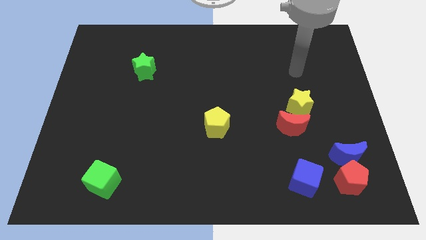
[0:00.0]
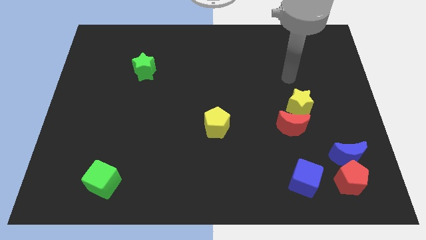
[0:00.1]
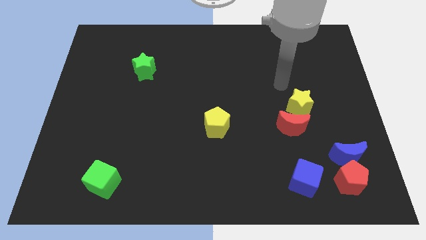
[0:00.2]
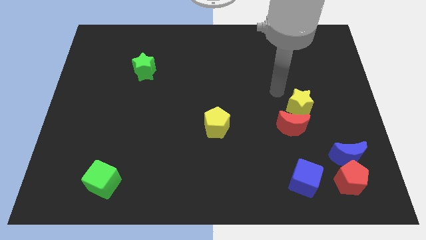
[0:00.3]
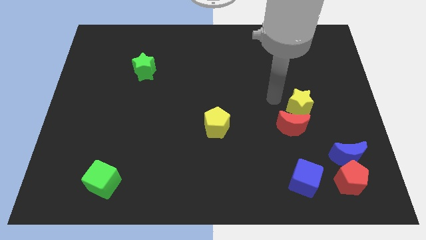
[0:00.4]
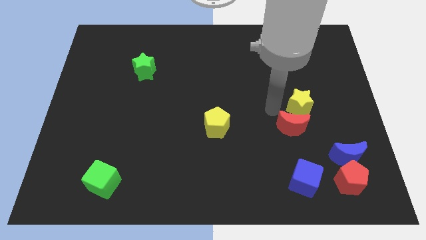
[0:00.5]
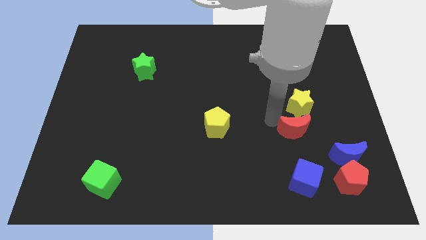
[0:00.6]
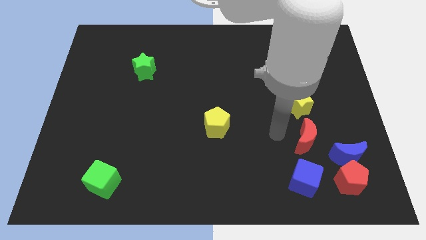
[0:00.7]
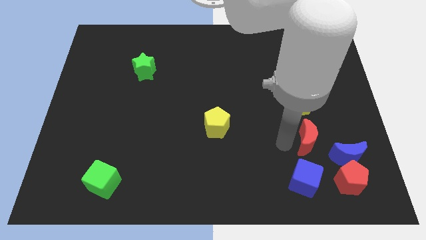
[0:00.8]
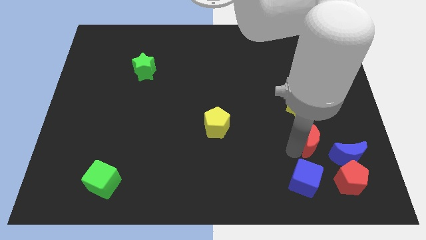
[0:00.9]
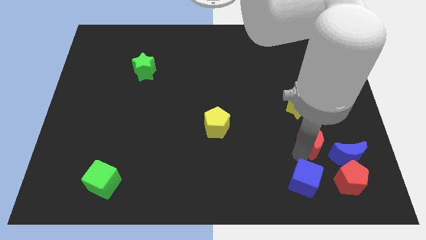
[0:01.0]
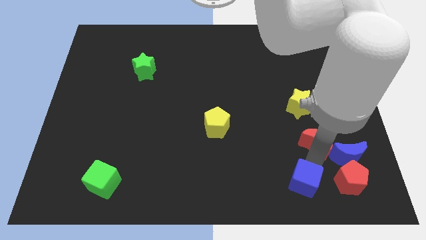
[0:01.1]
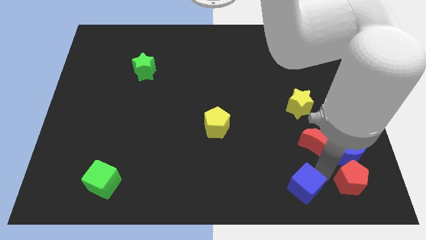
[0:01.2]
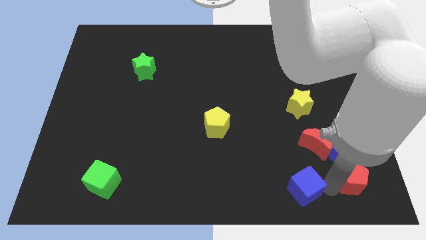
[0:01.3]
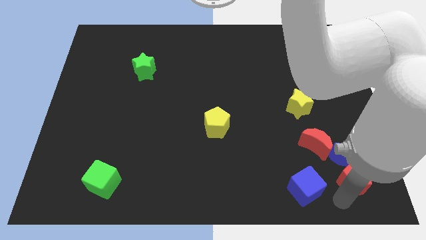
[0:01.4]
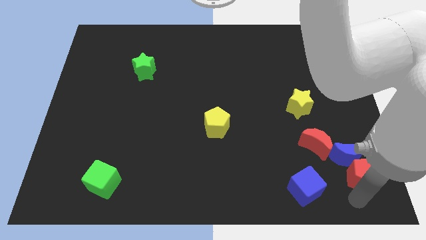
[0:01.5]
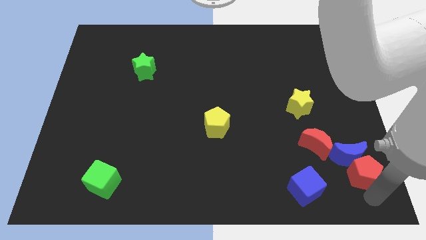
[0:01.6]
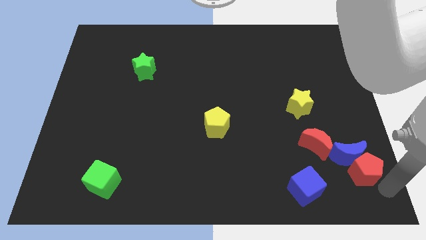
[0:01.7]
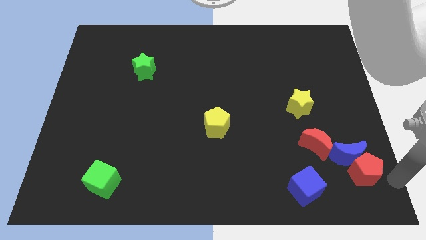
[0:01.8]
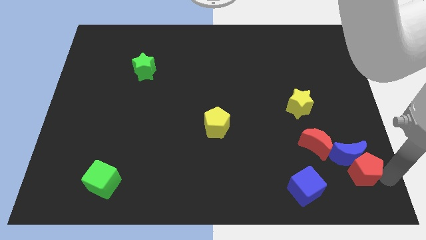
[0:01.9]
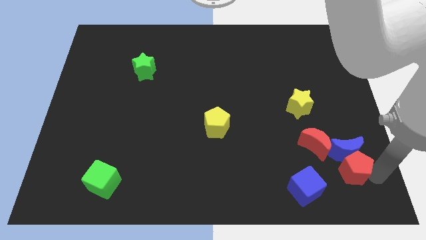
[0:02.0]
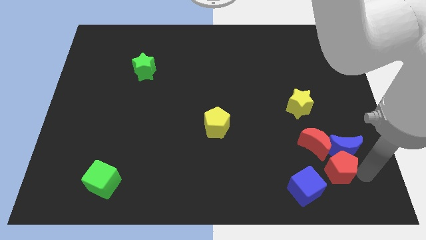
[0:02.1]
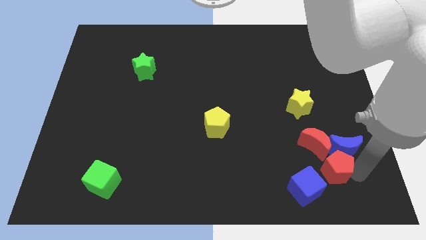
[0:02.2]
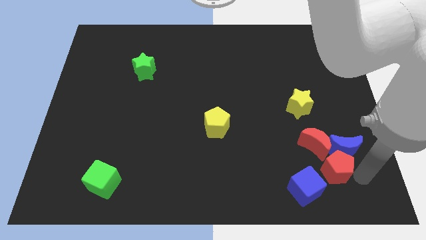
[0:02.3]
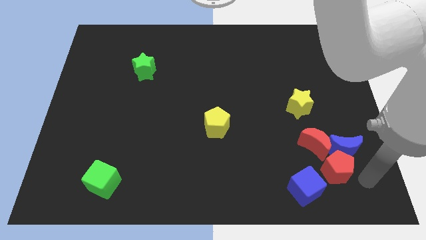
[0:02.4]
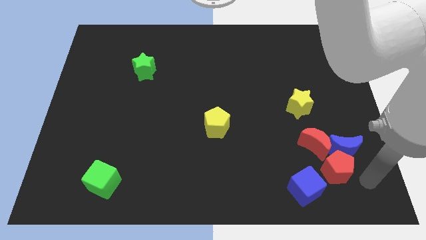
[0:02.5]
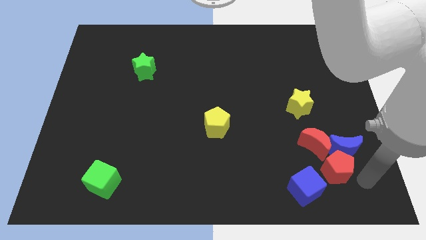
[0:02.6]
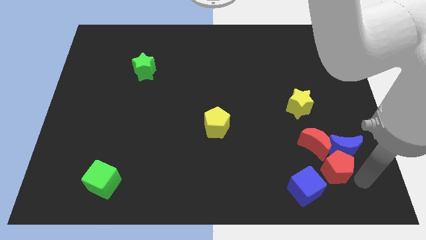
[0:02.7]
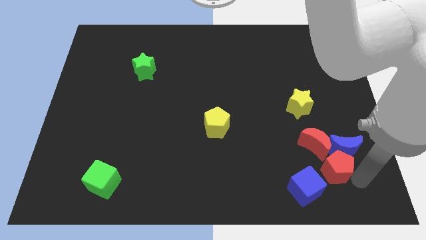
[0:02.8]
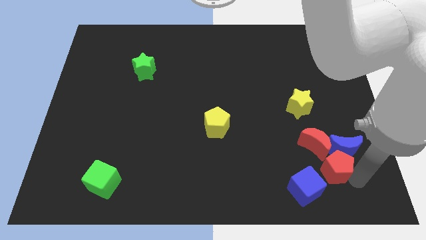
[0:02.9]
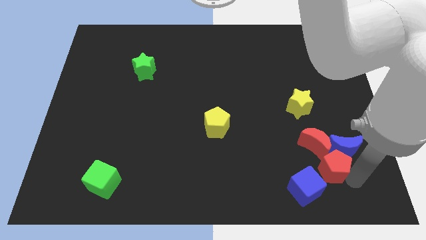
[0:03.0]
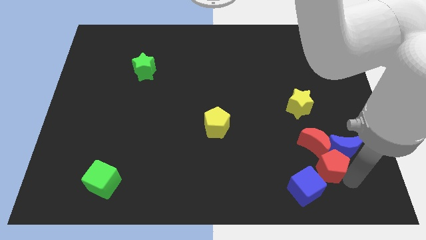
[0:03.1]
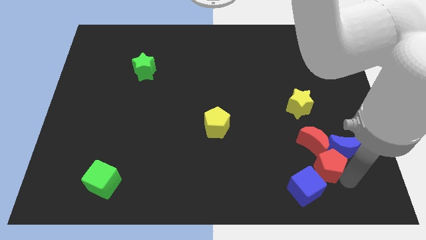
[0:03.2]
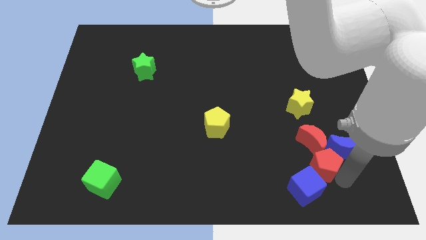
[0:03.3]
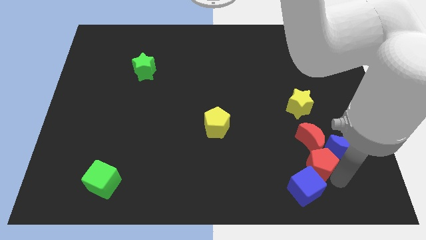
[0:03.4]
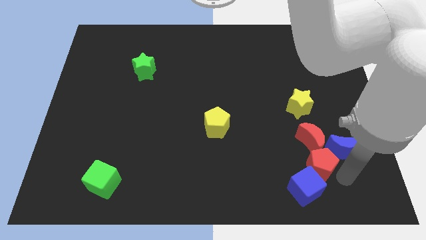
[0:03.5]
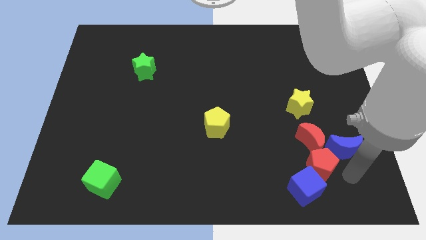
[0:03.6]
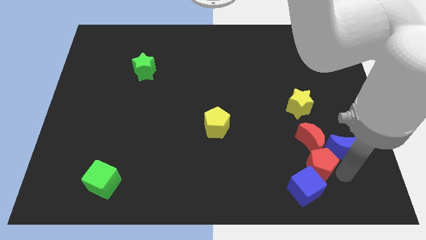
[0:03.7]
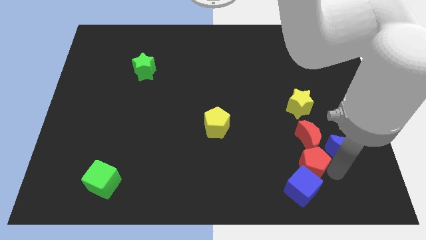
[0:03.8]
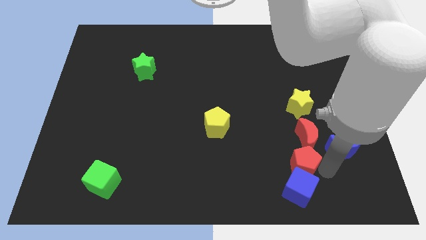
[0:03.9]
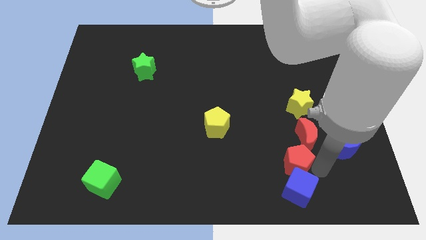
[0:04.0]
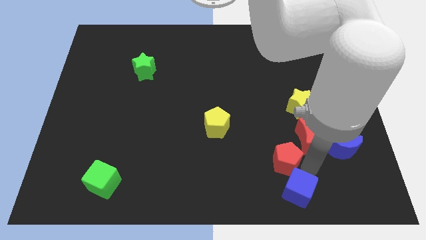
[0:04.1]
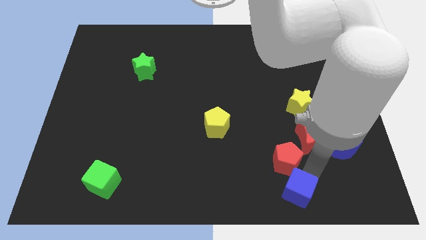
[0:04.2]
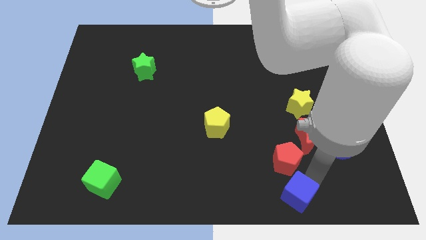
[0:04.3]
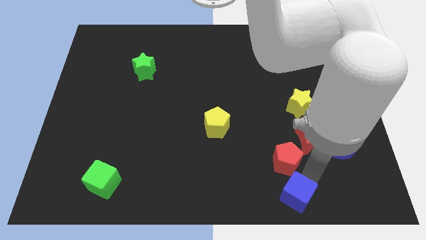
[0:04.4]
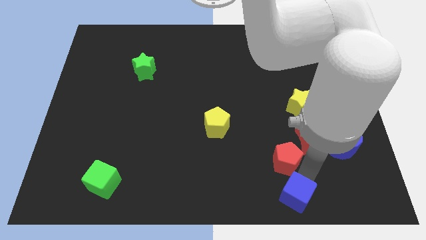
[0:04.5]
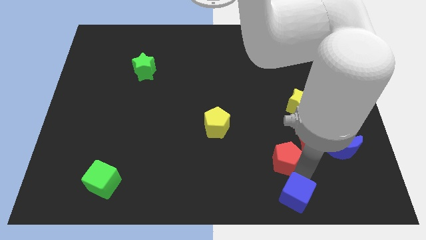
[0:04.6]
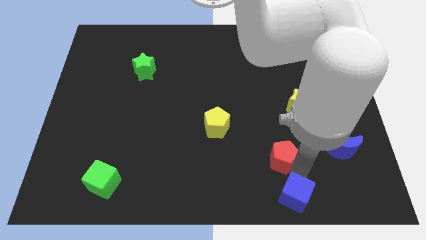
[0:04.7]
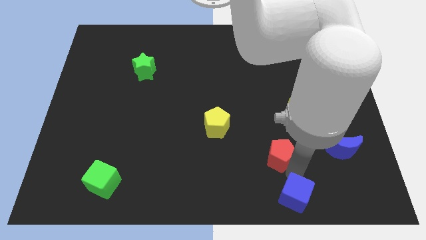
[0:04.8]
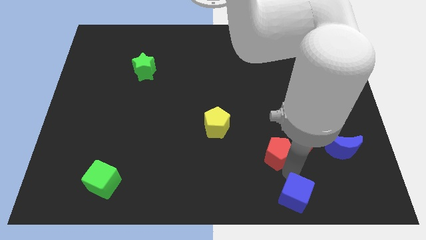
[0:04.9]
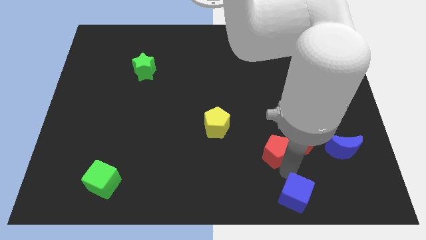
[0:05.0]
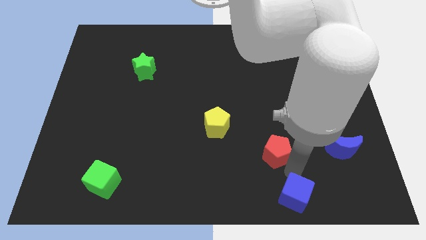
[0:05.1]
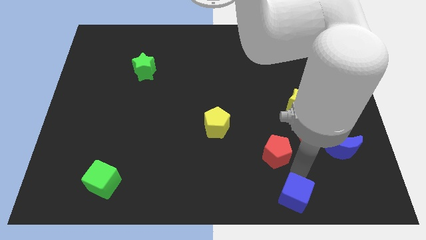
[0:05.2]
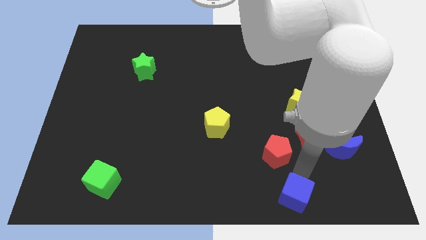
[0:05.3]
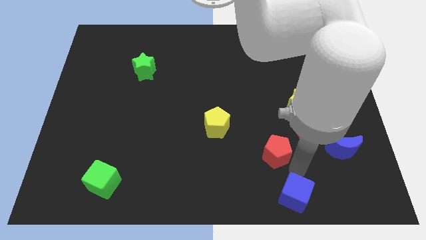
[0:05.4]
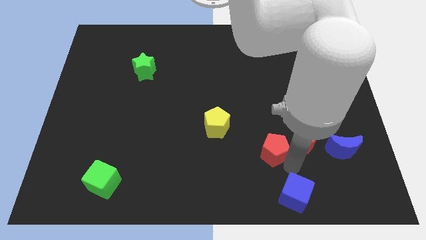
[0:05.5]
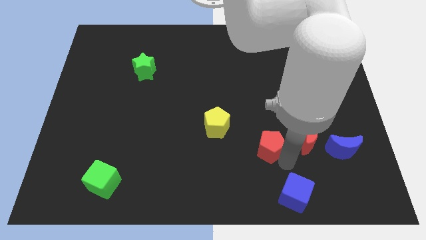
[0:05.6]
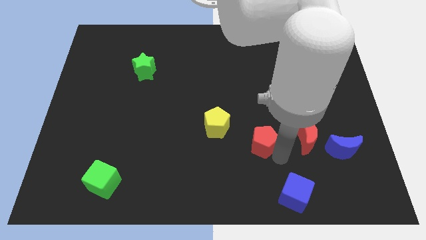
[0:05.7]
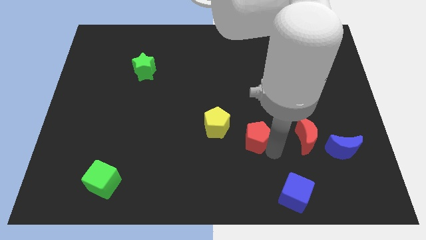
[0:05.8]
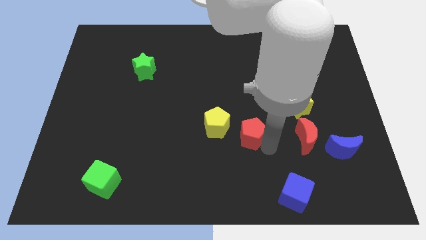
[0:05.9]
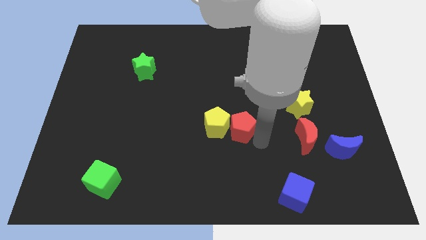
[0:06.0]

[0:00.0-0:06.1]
slide the red pentagon close to the yellow pentagon

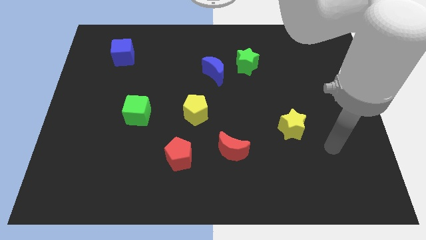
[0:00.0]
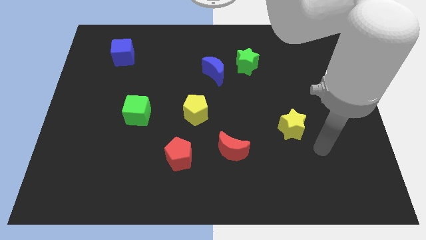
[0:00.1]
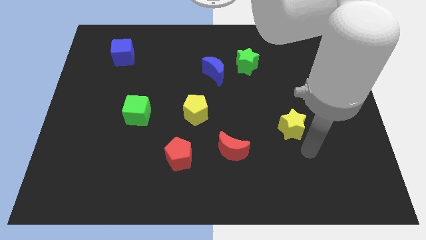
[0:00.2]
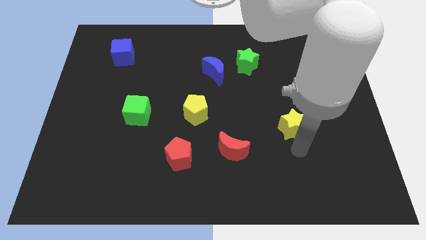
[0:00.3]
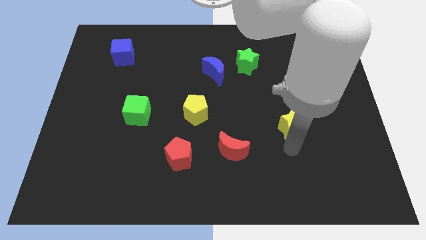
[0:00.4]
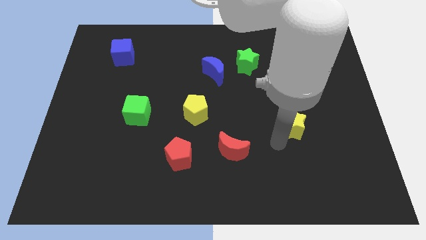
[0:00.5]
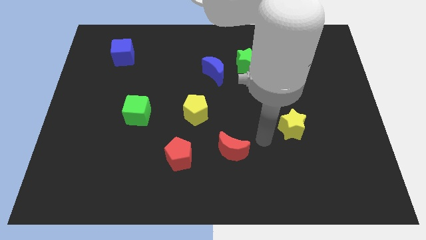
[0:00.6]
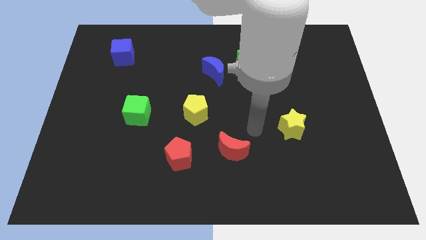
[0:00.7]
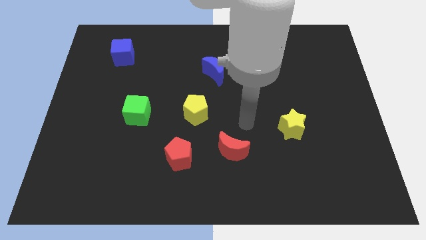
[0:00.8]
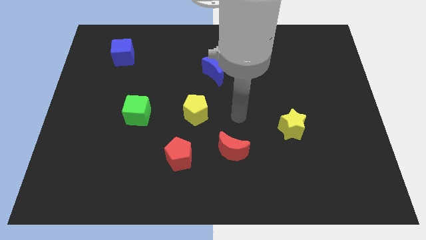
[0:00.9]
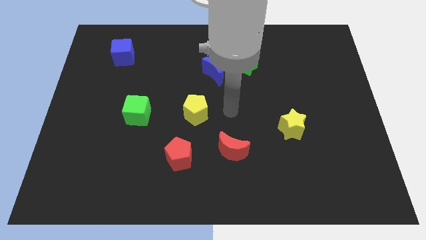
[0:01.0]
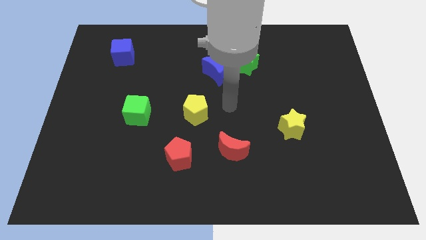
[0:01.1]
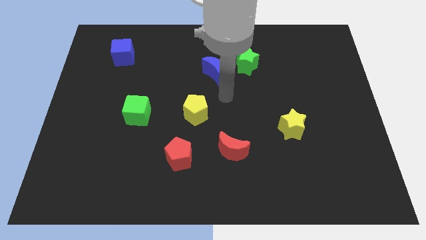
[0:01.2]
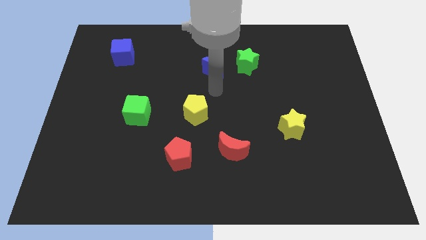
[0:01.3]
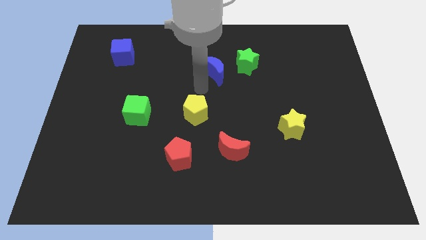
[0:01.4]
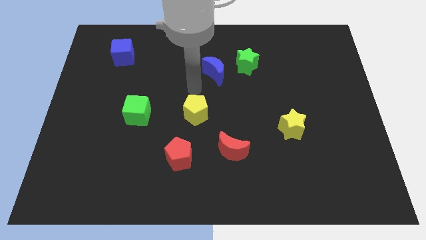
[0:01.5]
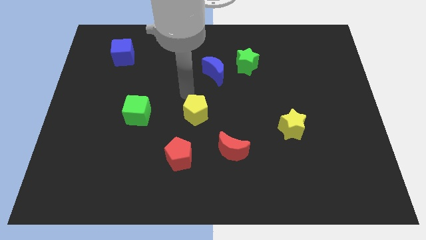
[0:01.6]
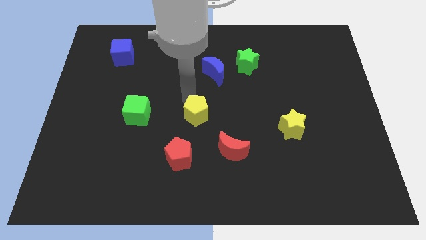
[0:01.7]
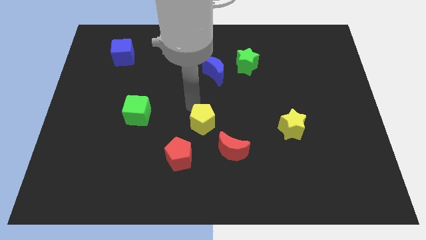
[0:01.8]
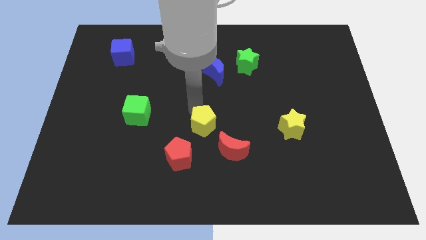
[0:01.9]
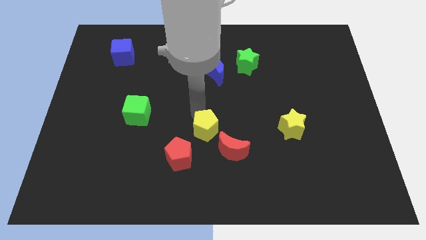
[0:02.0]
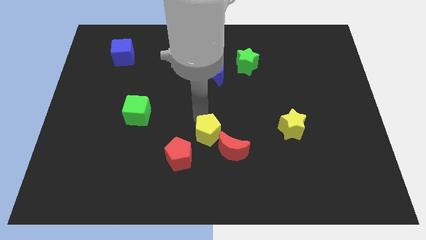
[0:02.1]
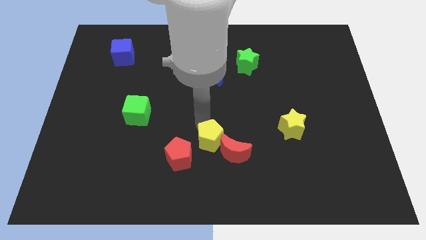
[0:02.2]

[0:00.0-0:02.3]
slide the yellow pentagon next to the red moon
